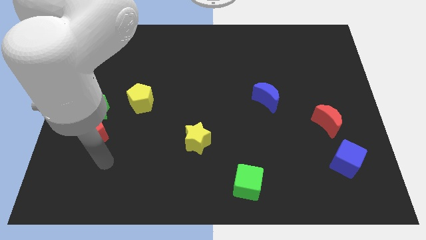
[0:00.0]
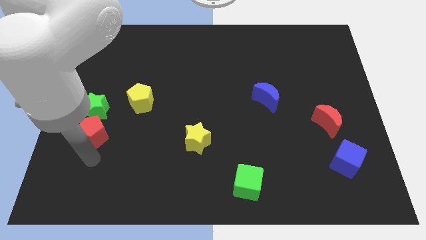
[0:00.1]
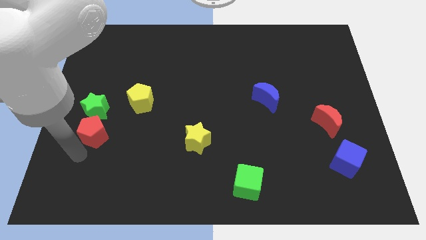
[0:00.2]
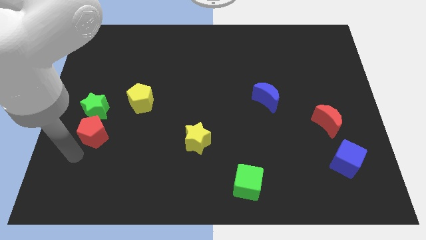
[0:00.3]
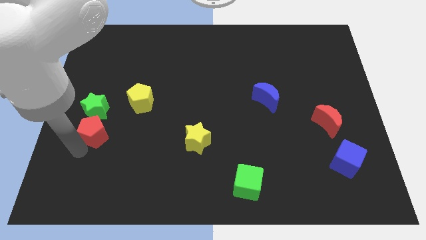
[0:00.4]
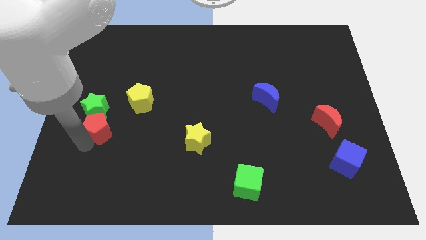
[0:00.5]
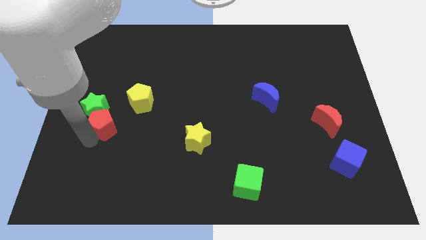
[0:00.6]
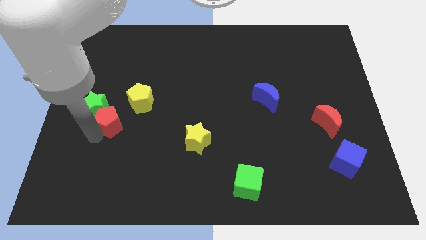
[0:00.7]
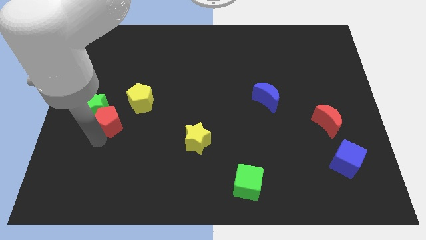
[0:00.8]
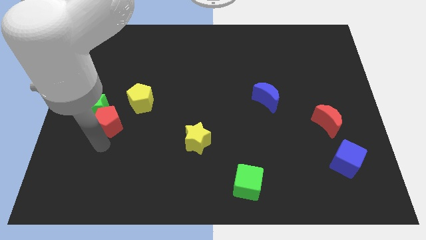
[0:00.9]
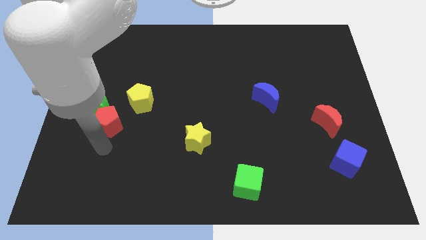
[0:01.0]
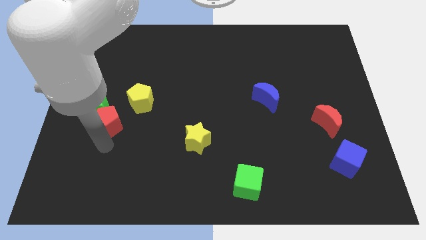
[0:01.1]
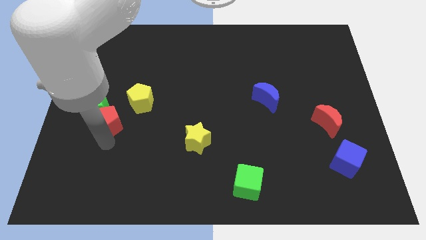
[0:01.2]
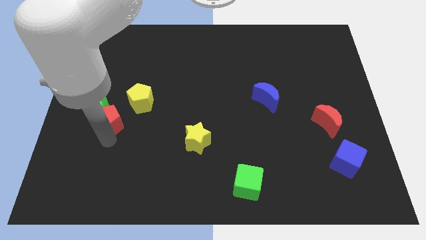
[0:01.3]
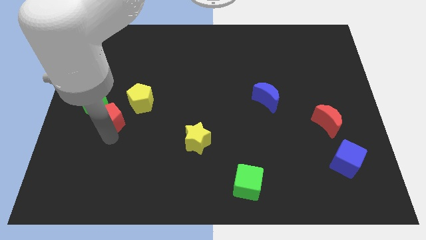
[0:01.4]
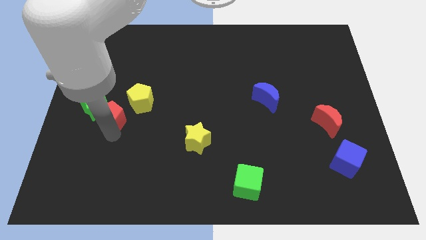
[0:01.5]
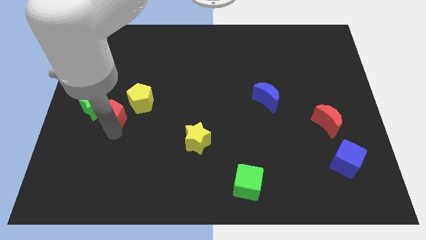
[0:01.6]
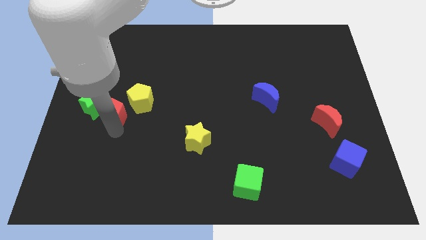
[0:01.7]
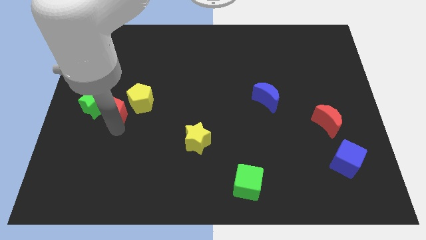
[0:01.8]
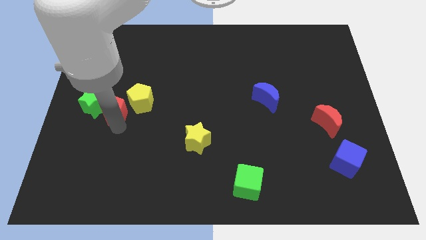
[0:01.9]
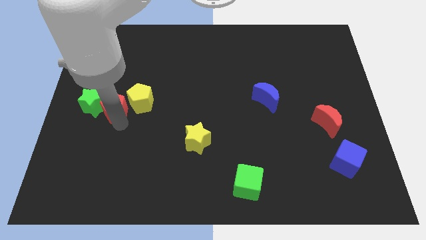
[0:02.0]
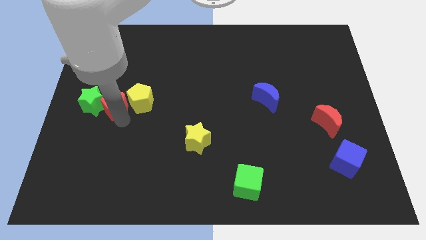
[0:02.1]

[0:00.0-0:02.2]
slightly move the red pentagon up

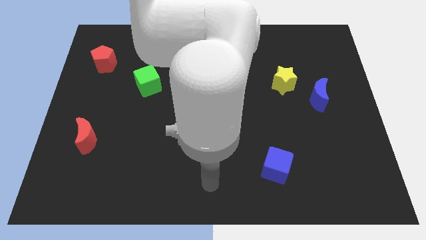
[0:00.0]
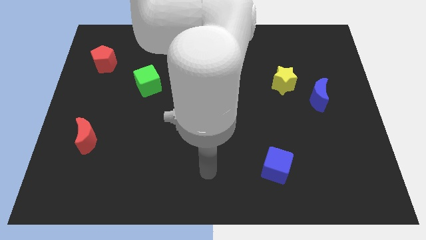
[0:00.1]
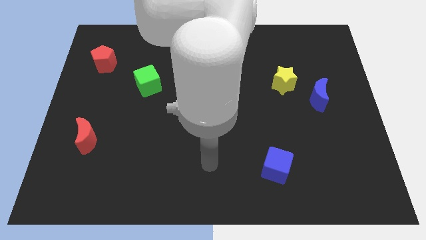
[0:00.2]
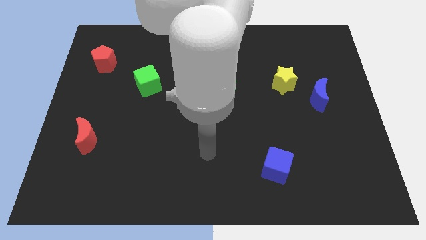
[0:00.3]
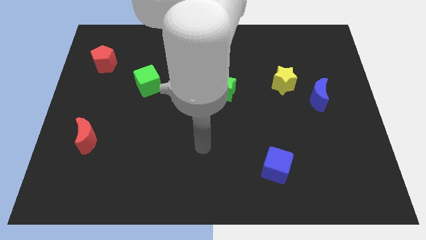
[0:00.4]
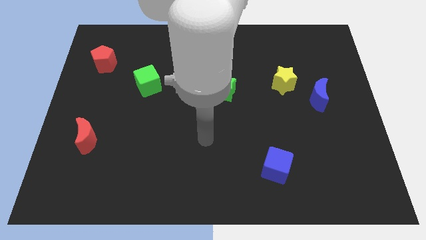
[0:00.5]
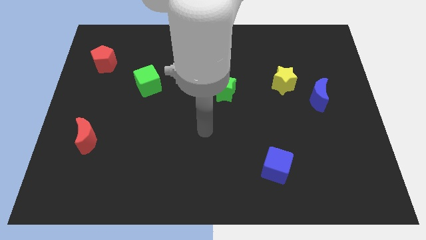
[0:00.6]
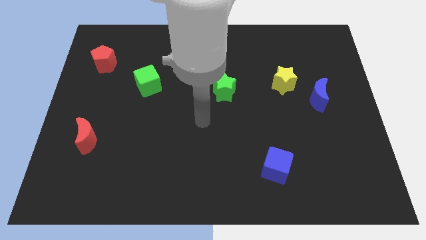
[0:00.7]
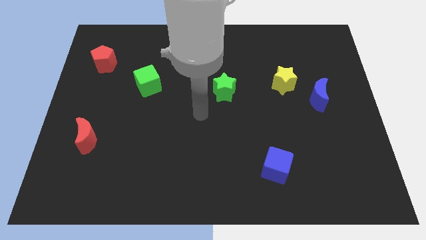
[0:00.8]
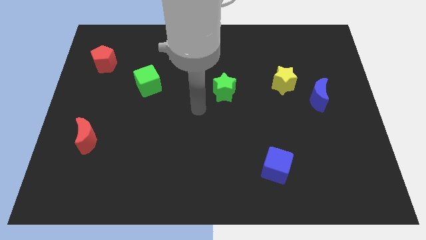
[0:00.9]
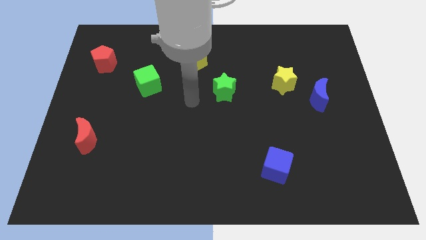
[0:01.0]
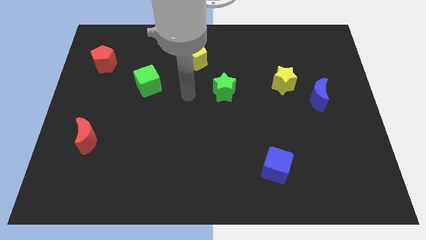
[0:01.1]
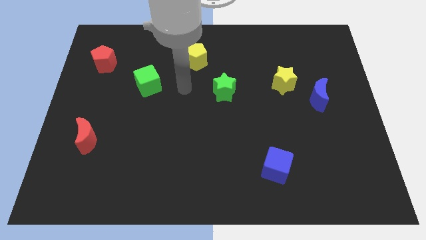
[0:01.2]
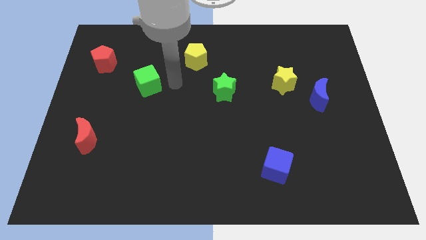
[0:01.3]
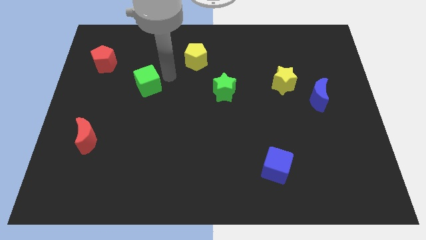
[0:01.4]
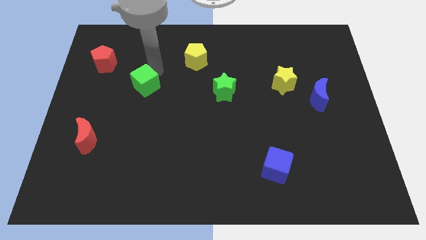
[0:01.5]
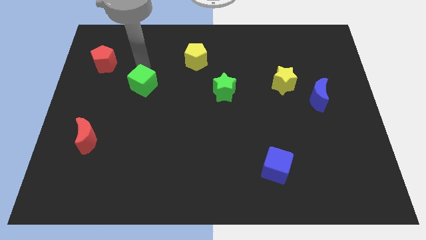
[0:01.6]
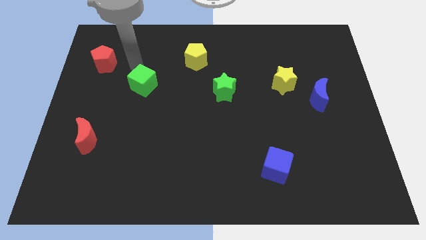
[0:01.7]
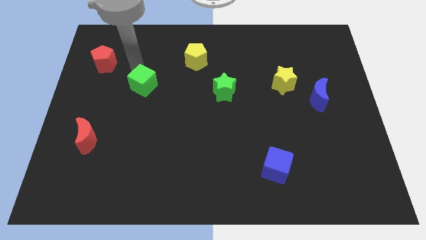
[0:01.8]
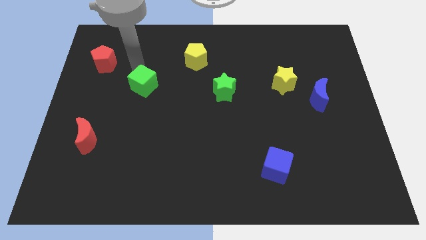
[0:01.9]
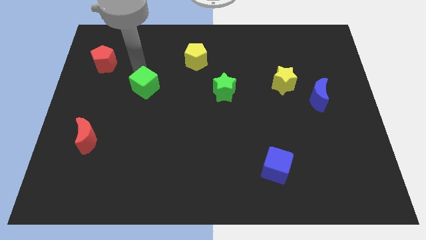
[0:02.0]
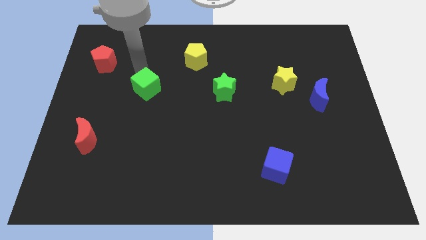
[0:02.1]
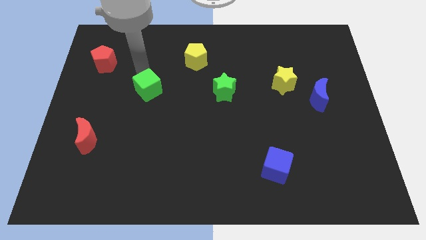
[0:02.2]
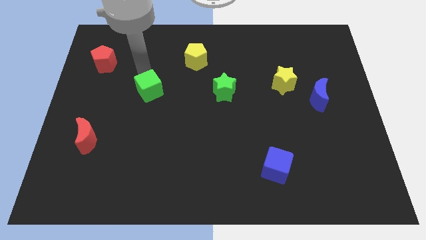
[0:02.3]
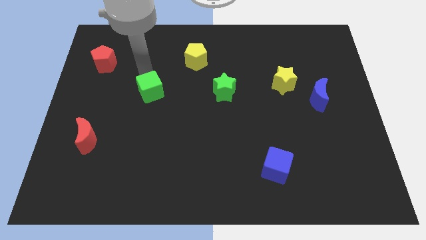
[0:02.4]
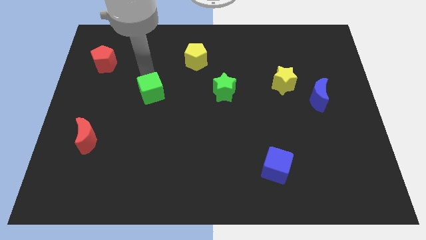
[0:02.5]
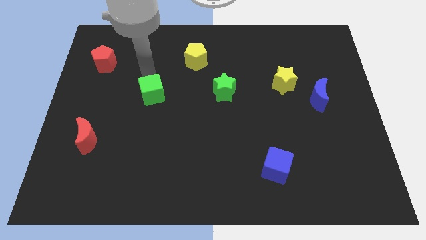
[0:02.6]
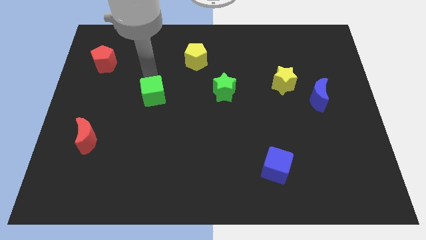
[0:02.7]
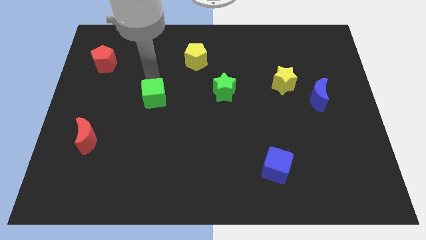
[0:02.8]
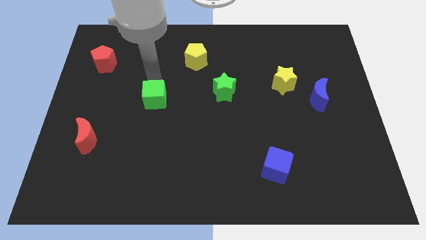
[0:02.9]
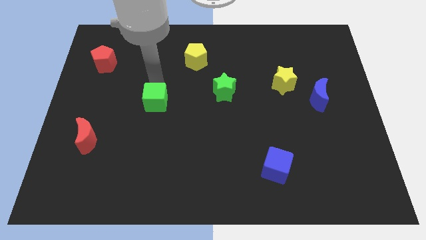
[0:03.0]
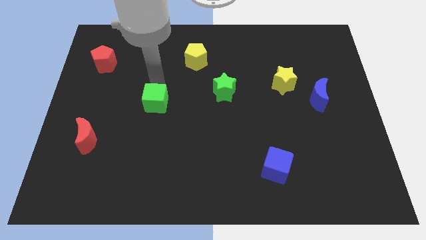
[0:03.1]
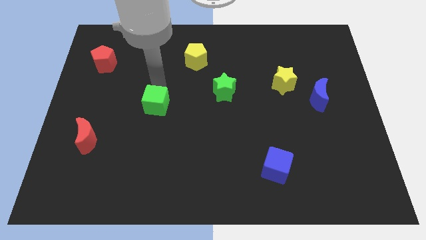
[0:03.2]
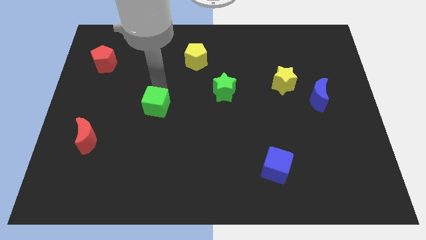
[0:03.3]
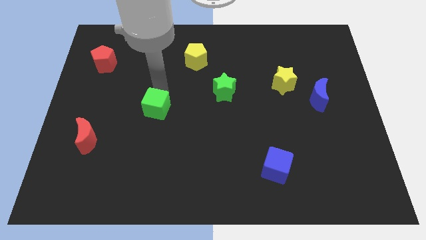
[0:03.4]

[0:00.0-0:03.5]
push the green cube a little bit down

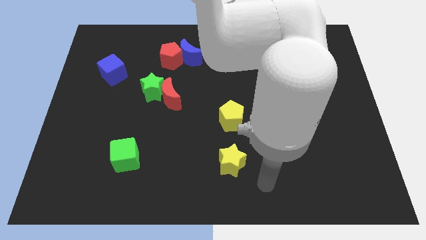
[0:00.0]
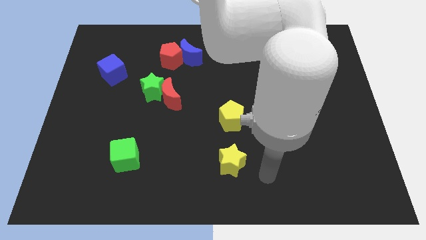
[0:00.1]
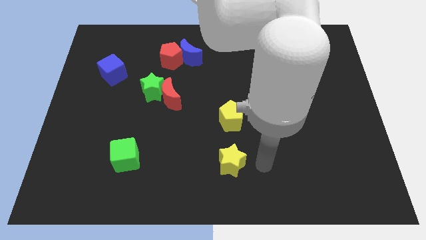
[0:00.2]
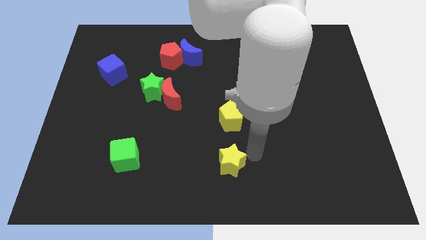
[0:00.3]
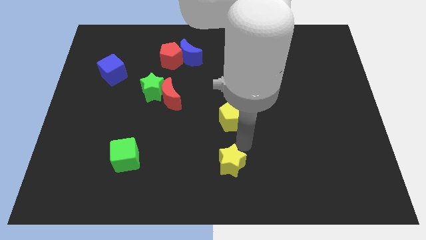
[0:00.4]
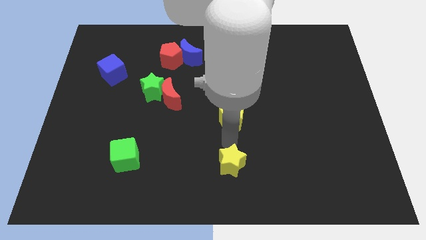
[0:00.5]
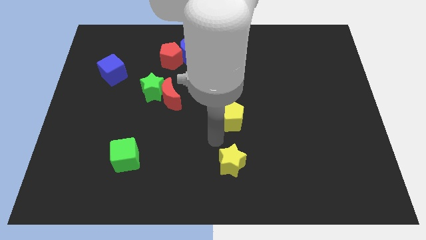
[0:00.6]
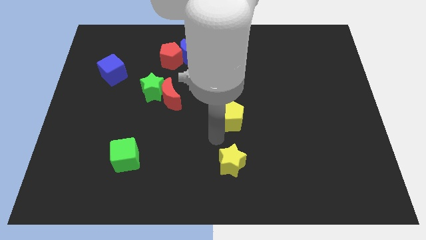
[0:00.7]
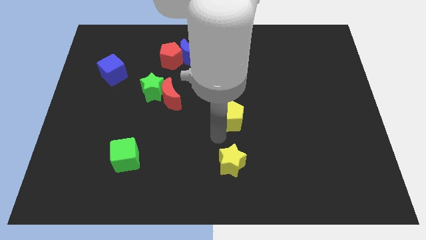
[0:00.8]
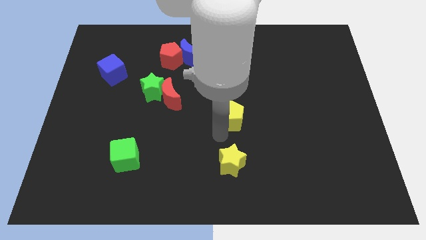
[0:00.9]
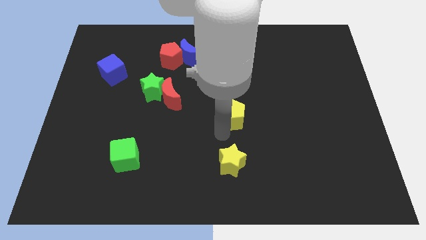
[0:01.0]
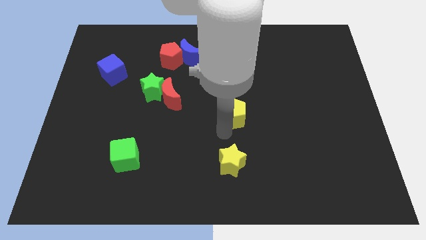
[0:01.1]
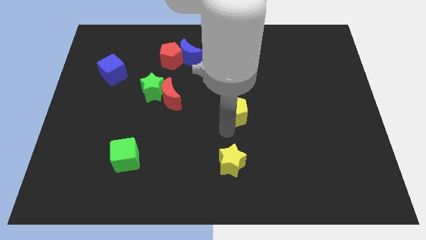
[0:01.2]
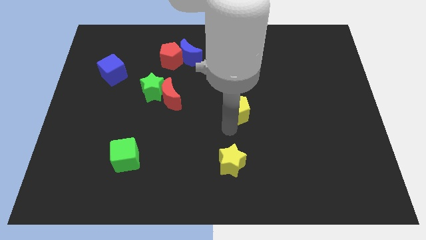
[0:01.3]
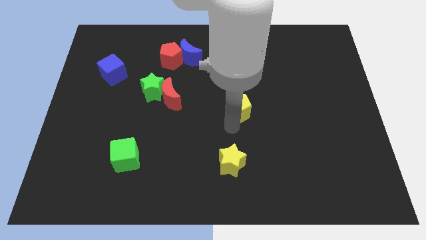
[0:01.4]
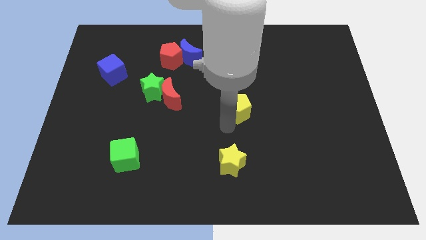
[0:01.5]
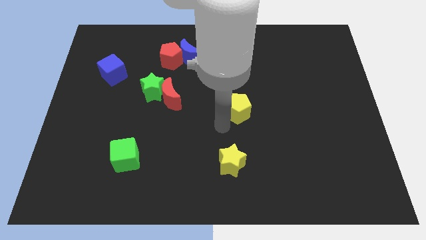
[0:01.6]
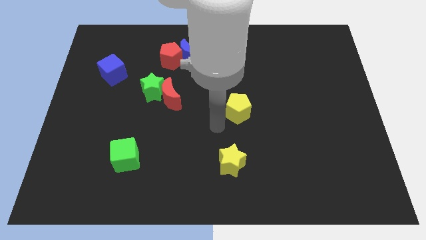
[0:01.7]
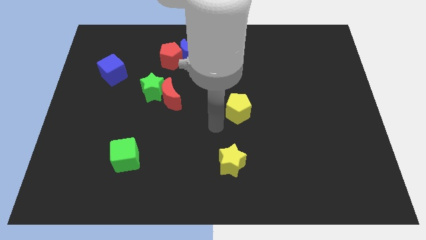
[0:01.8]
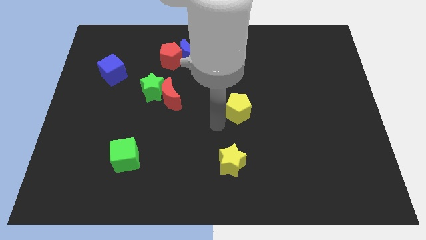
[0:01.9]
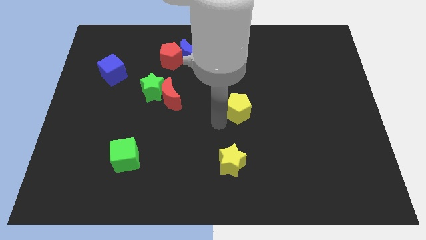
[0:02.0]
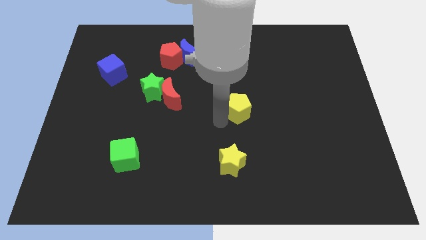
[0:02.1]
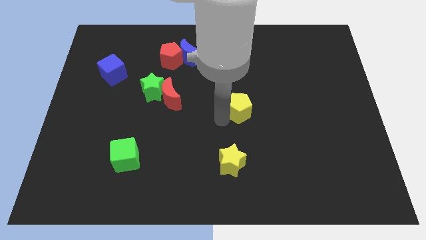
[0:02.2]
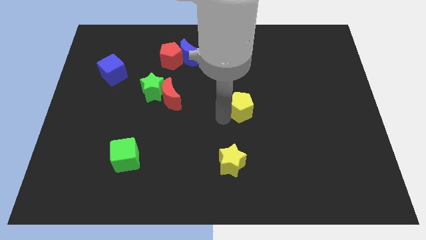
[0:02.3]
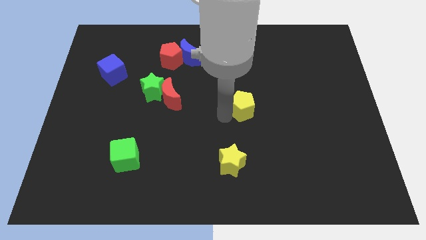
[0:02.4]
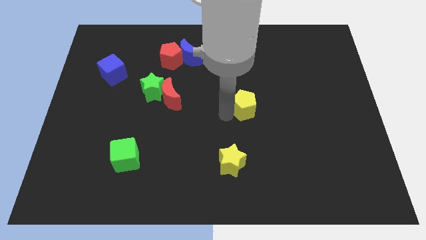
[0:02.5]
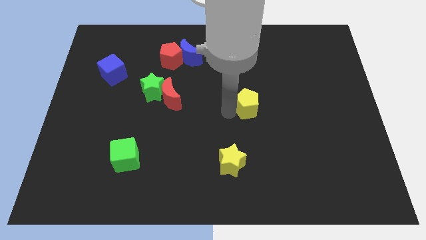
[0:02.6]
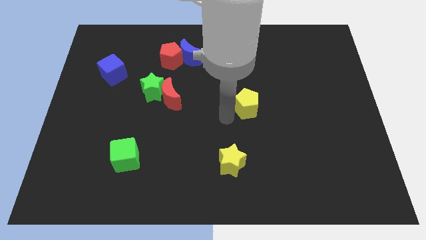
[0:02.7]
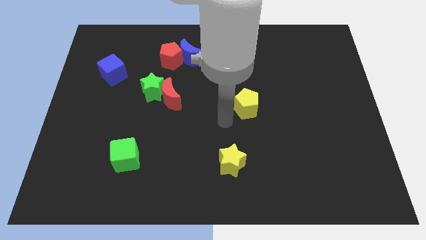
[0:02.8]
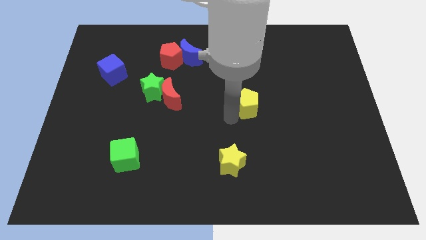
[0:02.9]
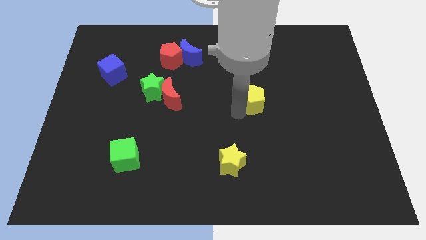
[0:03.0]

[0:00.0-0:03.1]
push the yellow pentagon a little up and to the right diagonally
